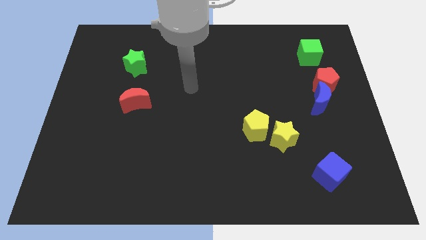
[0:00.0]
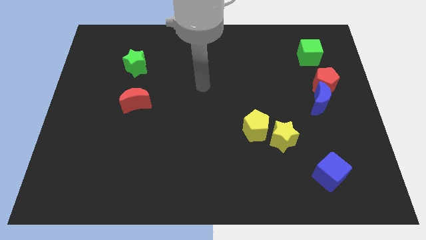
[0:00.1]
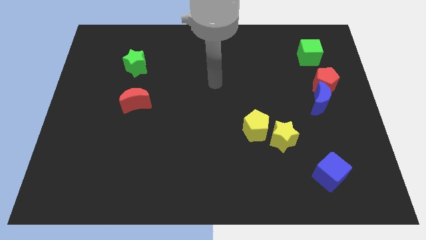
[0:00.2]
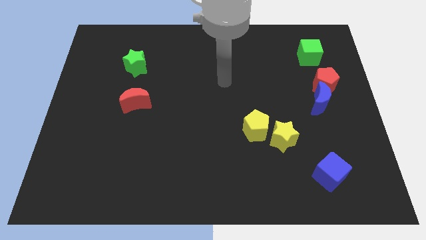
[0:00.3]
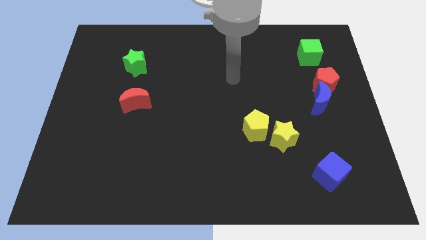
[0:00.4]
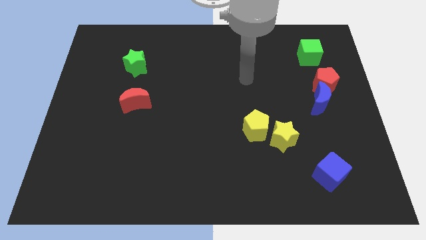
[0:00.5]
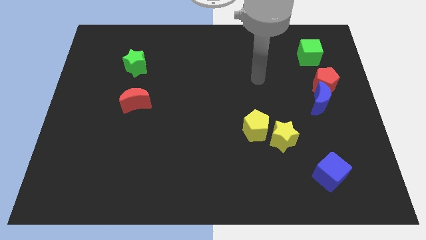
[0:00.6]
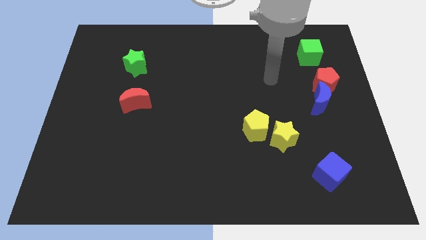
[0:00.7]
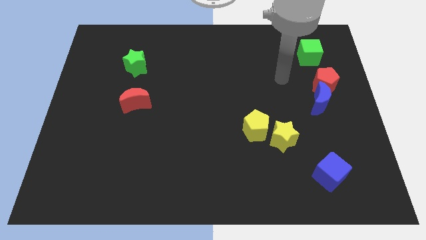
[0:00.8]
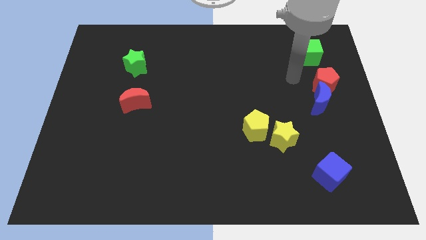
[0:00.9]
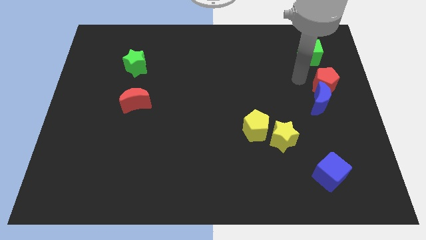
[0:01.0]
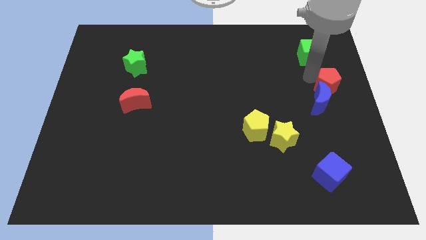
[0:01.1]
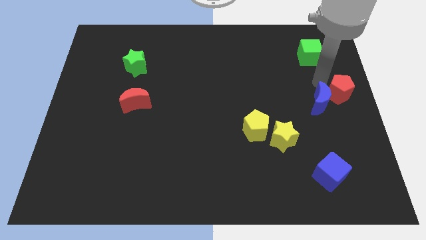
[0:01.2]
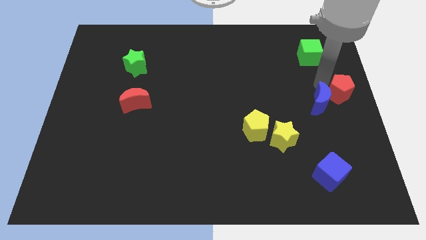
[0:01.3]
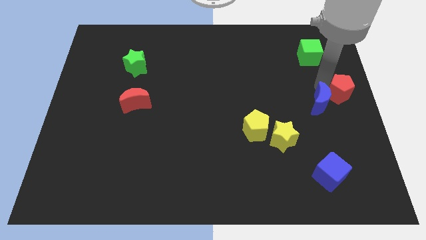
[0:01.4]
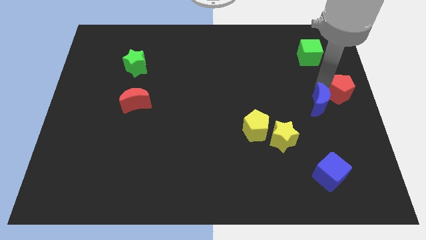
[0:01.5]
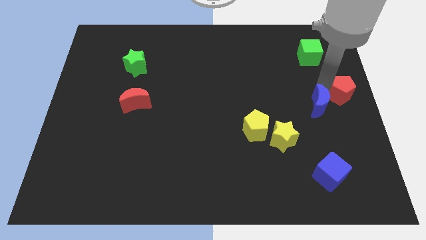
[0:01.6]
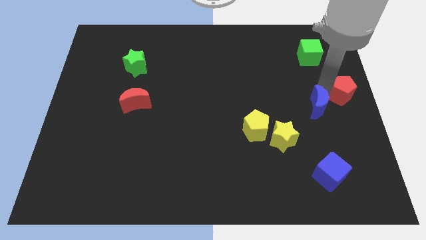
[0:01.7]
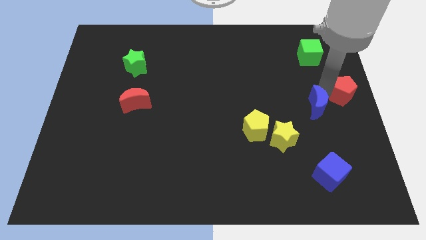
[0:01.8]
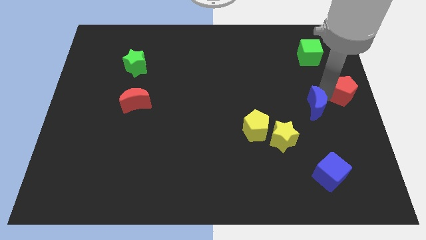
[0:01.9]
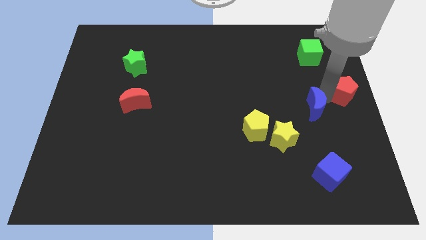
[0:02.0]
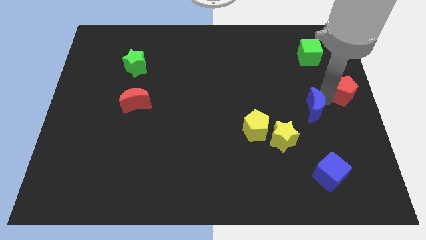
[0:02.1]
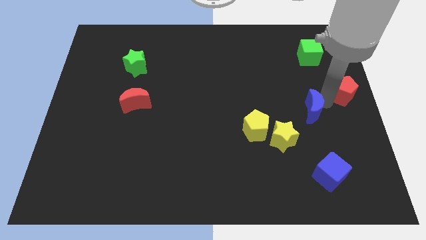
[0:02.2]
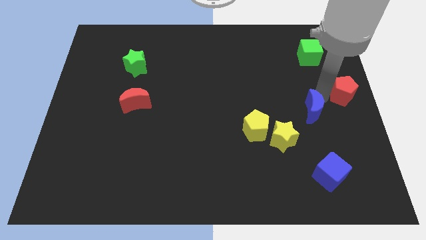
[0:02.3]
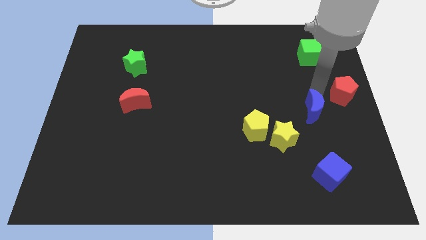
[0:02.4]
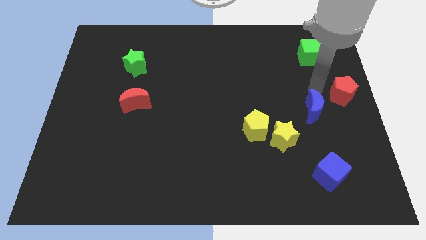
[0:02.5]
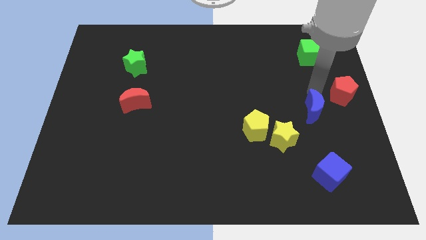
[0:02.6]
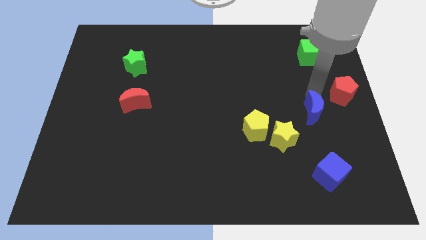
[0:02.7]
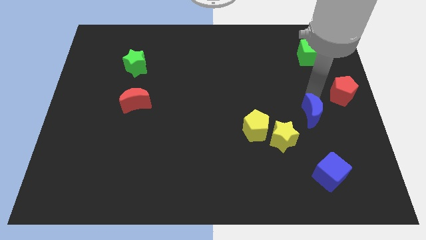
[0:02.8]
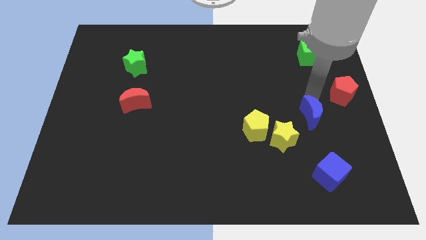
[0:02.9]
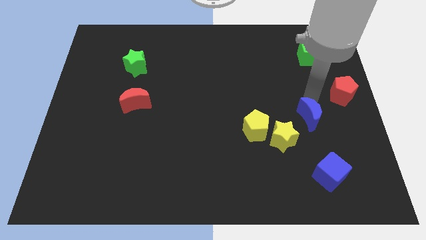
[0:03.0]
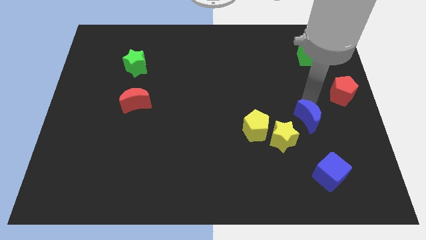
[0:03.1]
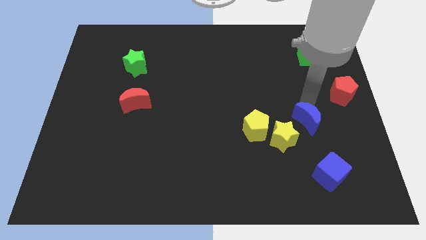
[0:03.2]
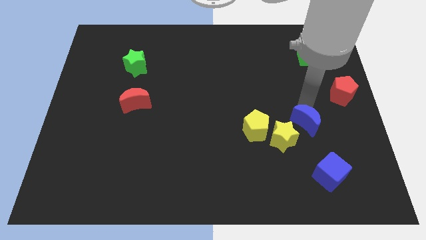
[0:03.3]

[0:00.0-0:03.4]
slide the blue moon a bit downwards and then left

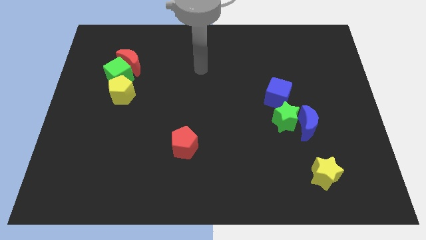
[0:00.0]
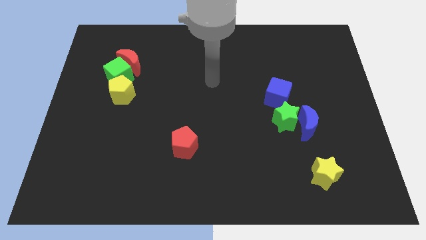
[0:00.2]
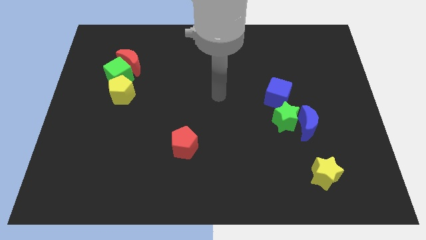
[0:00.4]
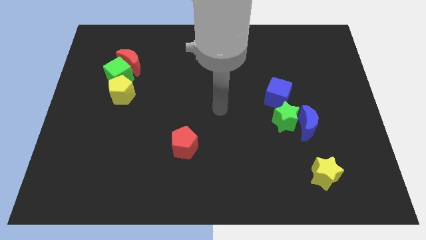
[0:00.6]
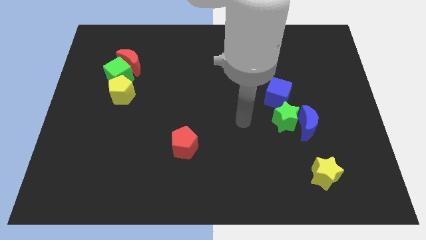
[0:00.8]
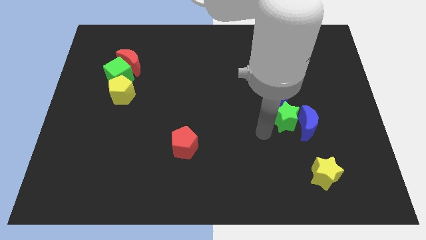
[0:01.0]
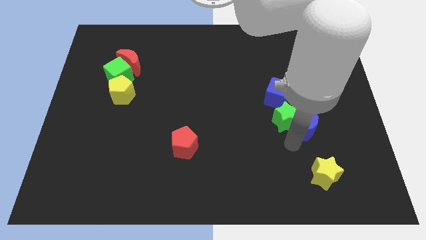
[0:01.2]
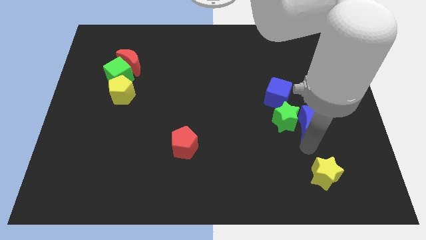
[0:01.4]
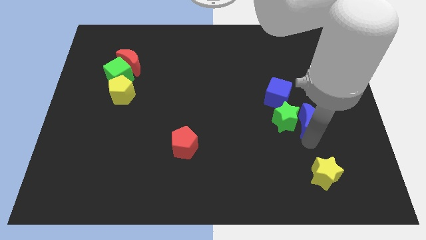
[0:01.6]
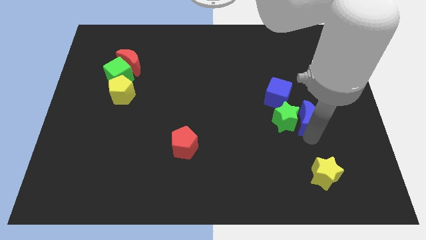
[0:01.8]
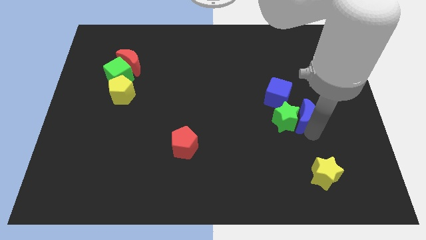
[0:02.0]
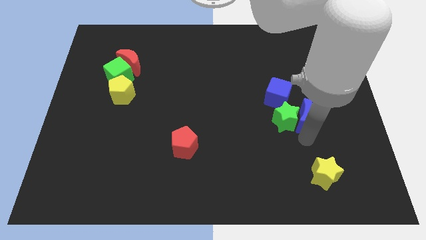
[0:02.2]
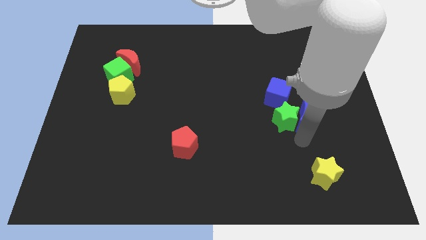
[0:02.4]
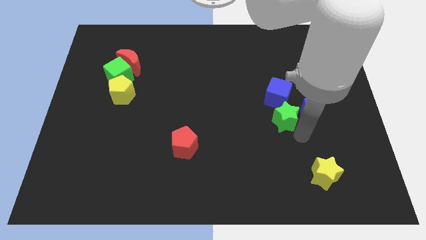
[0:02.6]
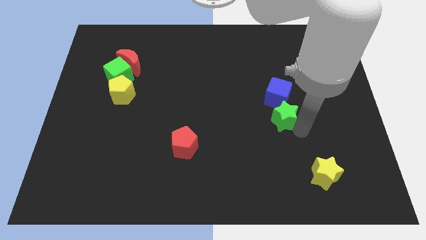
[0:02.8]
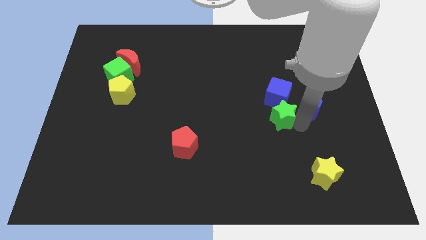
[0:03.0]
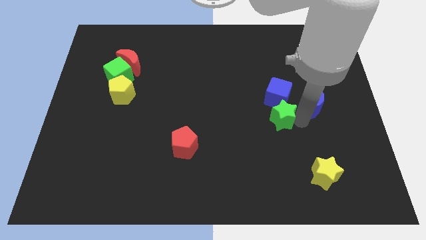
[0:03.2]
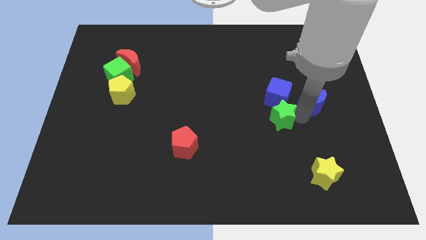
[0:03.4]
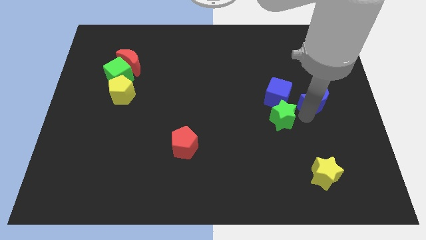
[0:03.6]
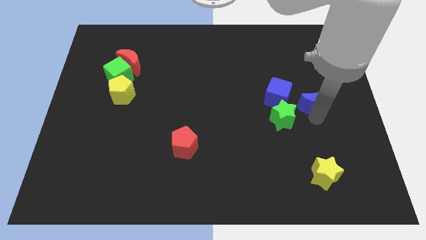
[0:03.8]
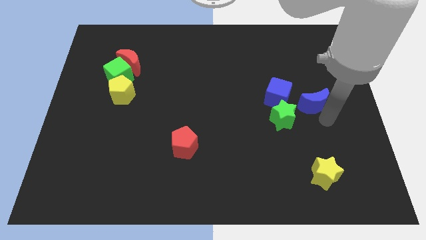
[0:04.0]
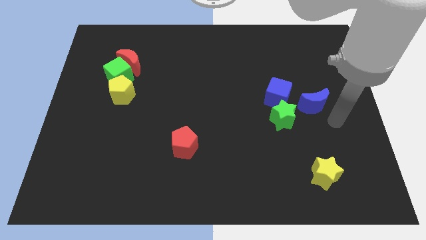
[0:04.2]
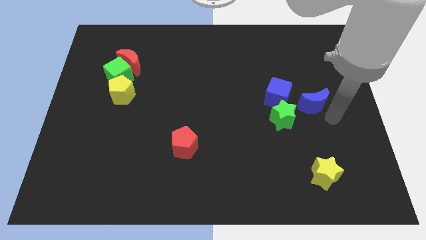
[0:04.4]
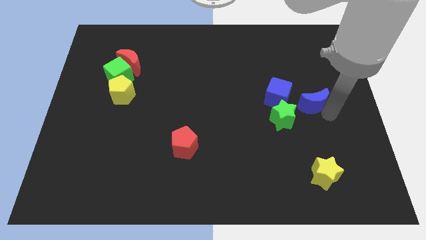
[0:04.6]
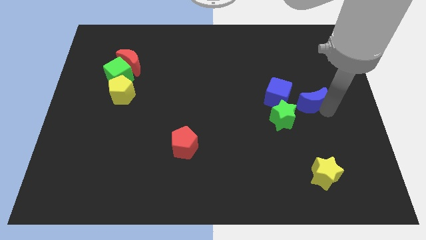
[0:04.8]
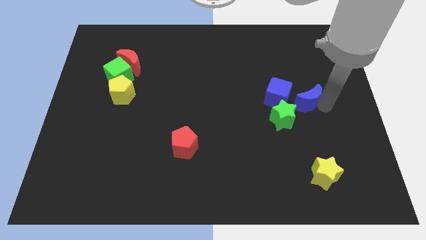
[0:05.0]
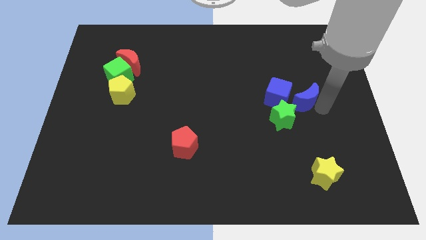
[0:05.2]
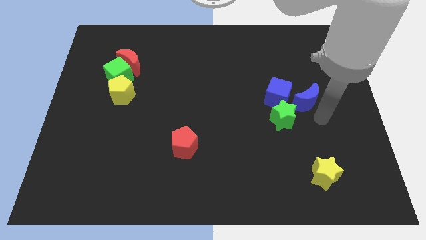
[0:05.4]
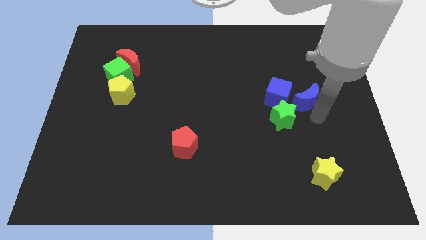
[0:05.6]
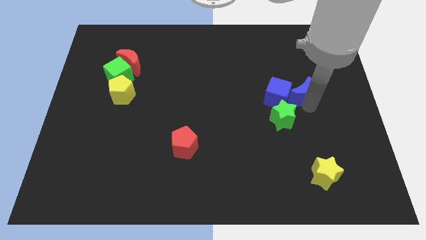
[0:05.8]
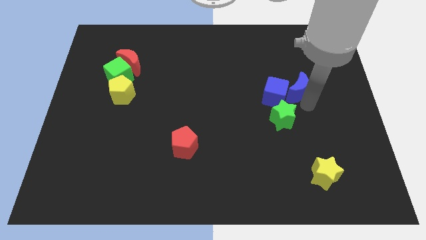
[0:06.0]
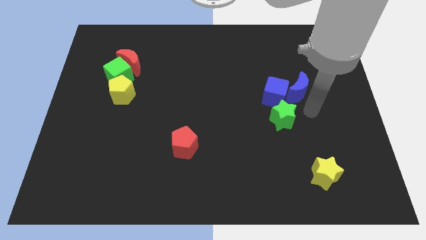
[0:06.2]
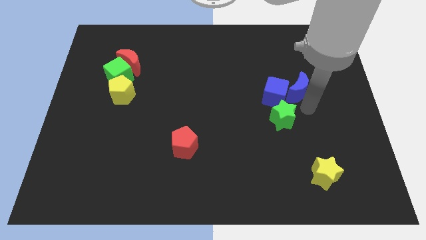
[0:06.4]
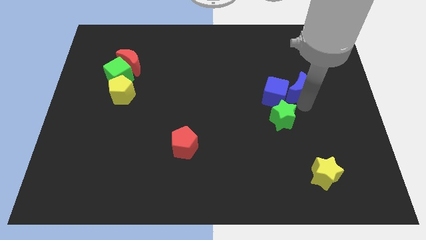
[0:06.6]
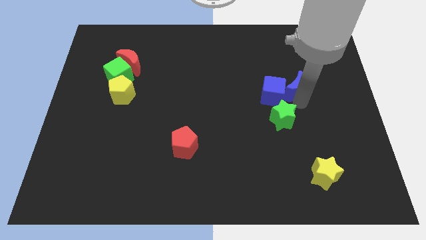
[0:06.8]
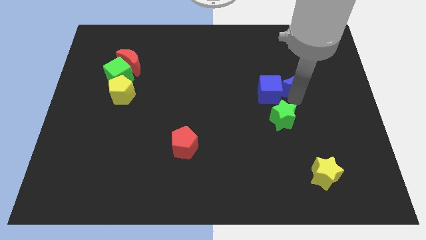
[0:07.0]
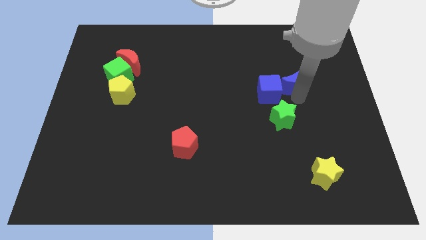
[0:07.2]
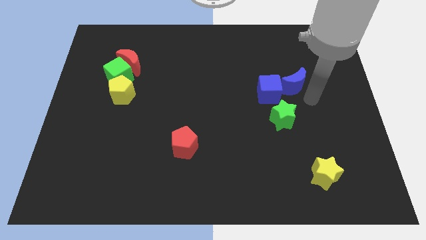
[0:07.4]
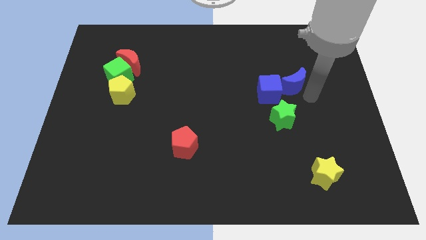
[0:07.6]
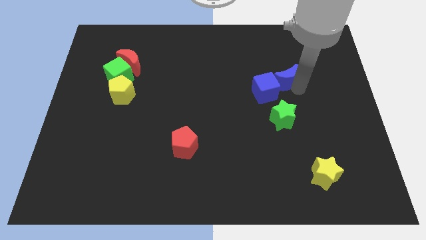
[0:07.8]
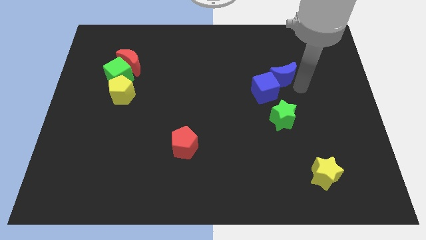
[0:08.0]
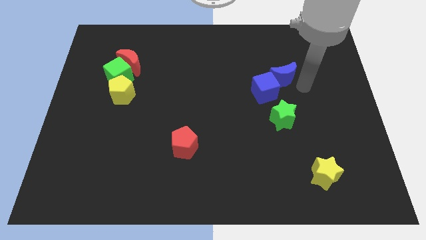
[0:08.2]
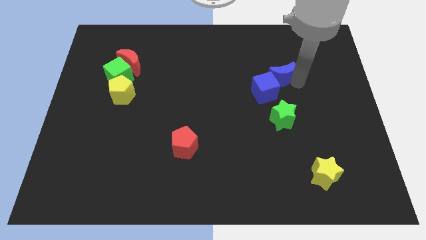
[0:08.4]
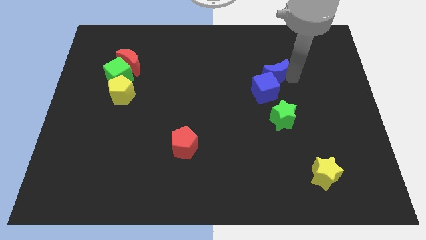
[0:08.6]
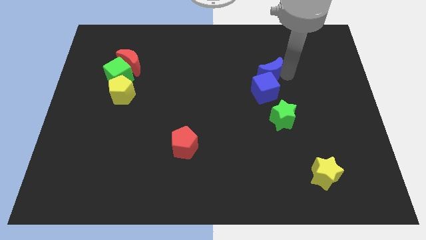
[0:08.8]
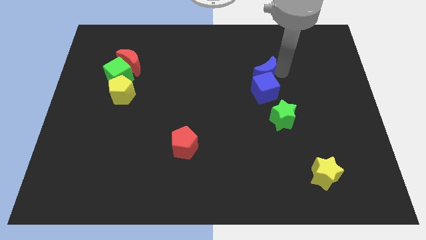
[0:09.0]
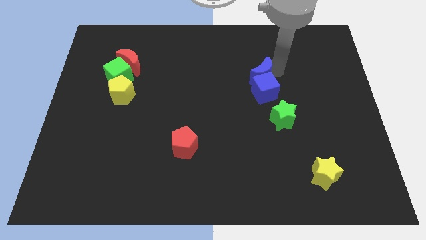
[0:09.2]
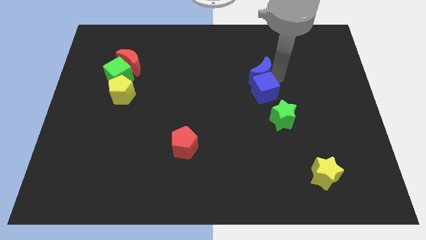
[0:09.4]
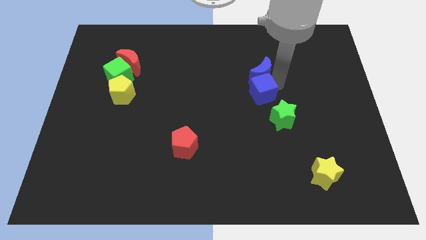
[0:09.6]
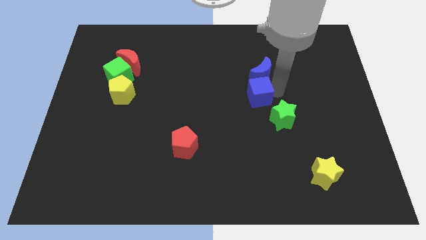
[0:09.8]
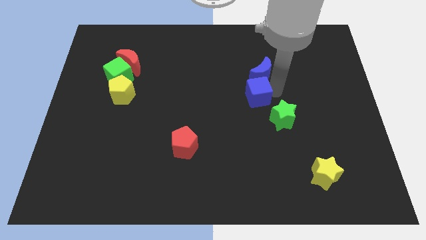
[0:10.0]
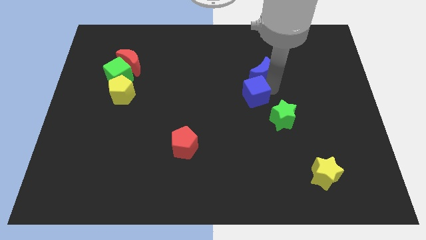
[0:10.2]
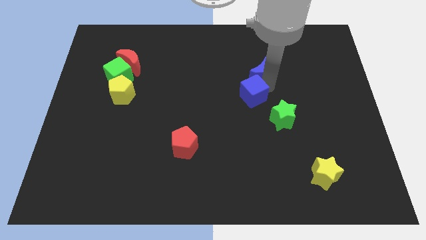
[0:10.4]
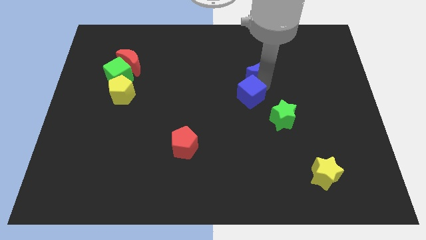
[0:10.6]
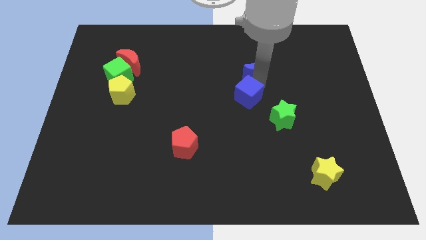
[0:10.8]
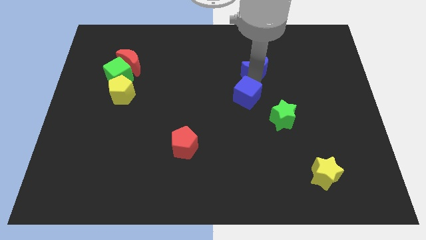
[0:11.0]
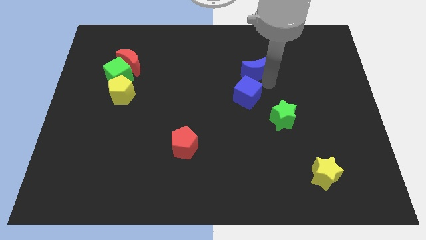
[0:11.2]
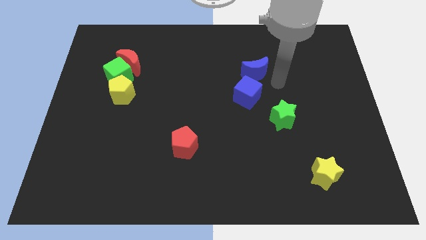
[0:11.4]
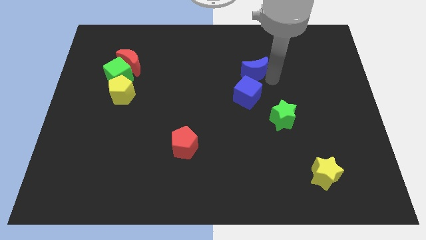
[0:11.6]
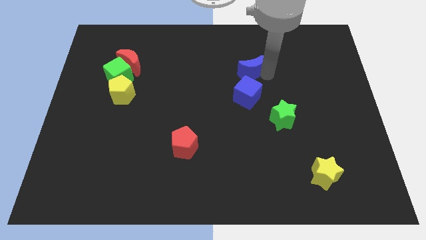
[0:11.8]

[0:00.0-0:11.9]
push the blue moon up and left diagonally
